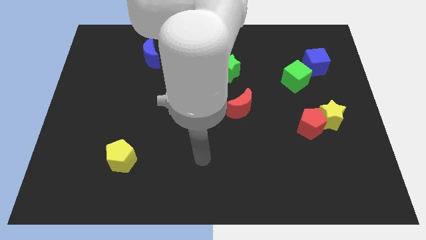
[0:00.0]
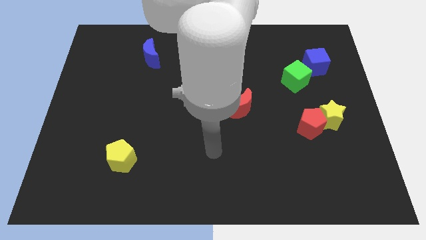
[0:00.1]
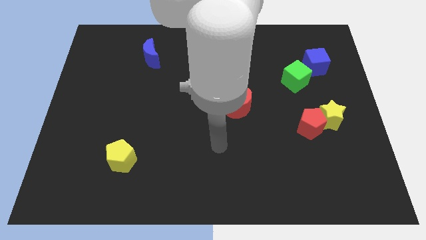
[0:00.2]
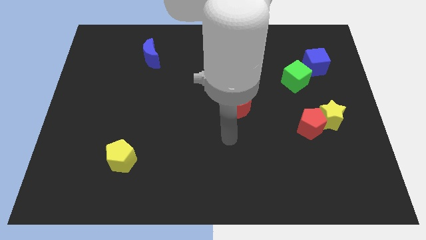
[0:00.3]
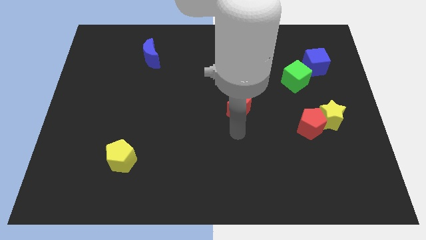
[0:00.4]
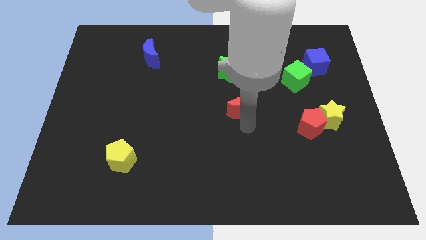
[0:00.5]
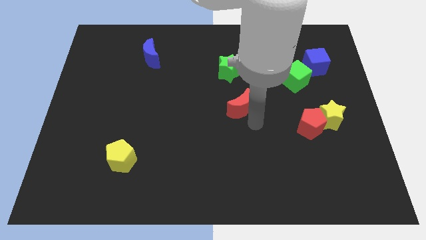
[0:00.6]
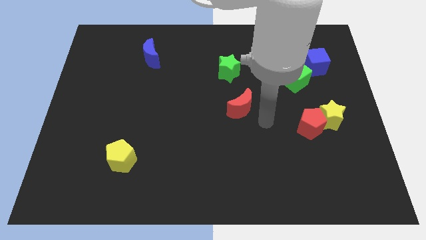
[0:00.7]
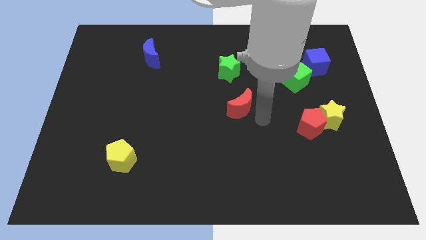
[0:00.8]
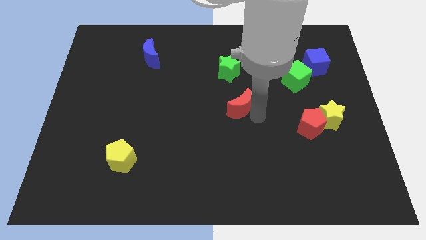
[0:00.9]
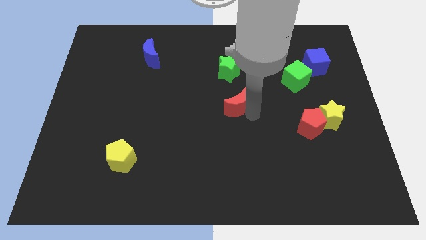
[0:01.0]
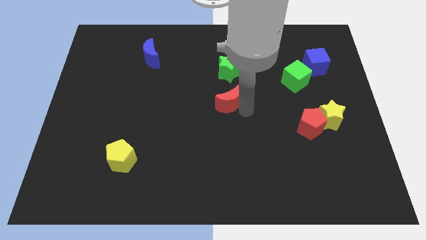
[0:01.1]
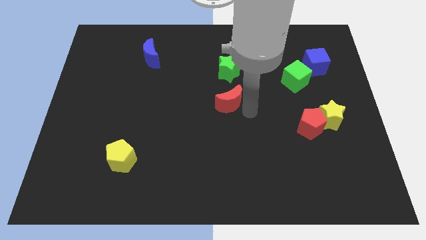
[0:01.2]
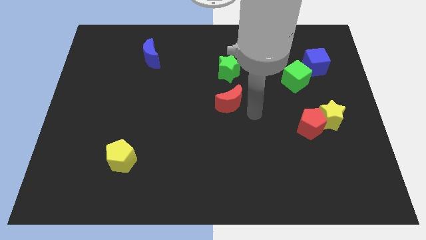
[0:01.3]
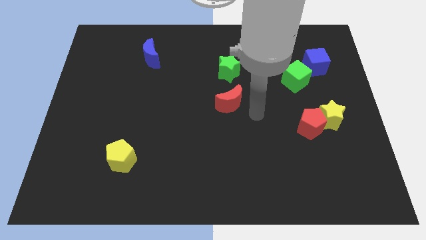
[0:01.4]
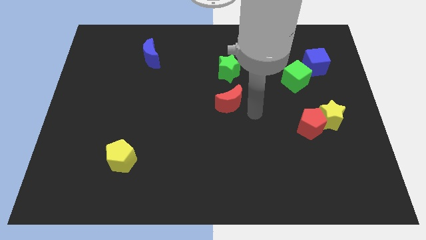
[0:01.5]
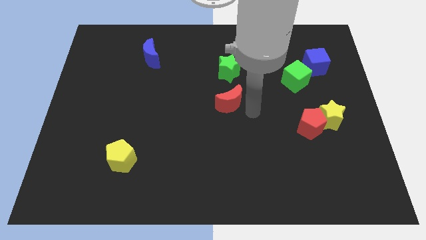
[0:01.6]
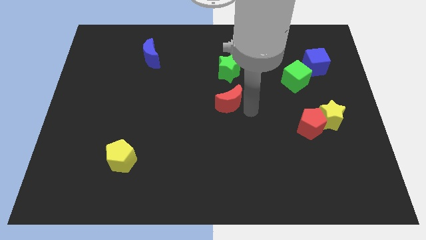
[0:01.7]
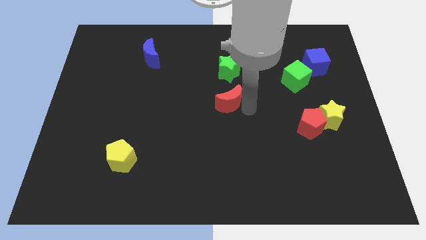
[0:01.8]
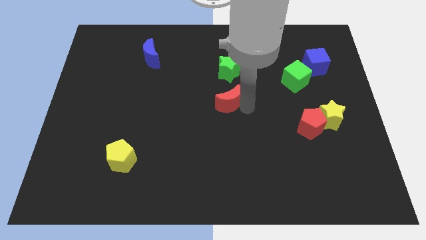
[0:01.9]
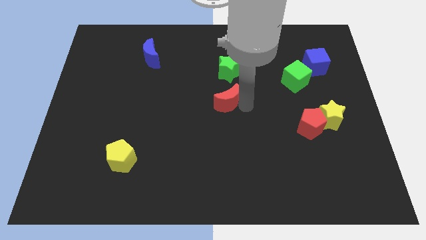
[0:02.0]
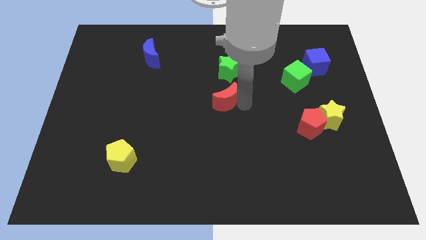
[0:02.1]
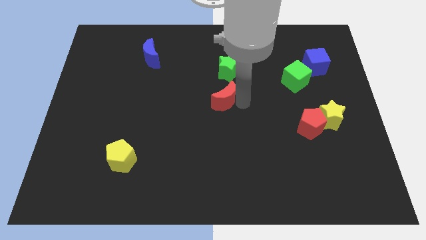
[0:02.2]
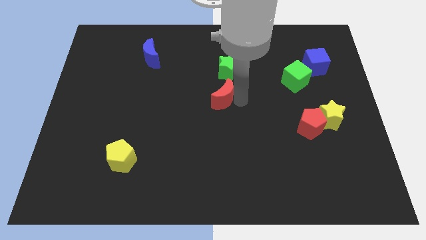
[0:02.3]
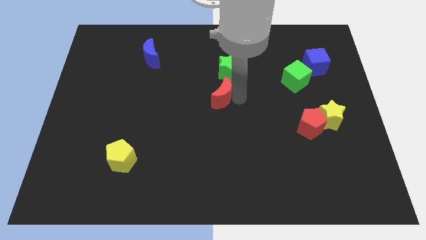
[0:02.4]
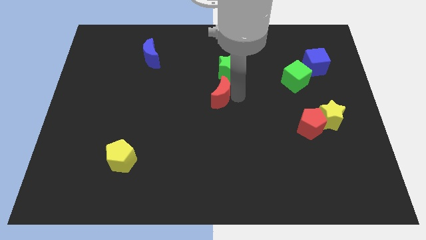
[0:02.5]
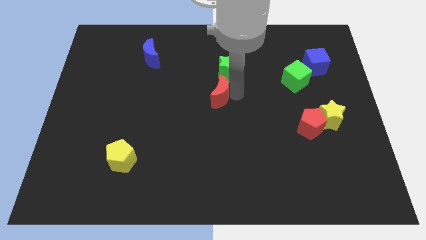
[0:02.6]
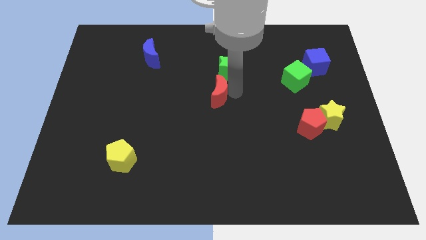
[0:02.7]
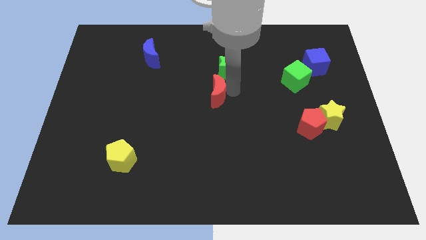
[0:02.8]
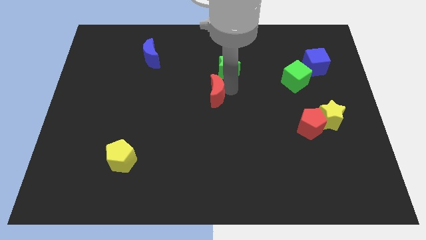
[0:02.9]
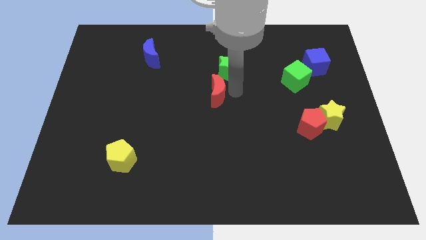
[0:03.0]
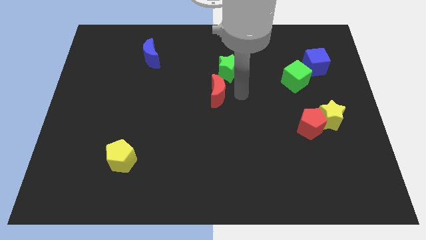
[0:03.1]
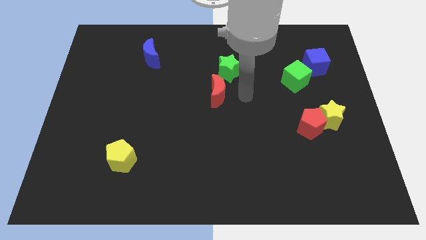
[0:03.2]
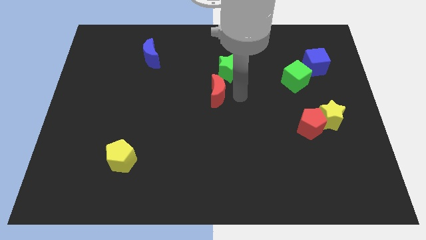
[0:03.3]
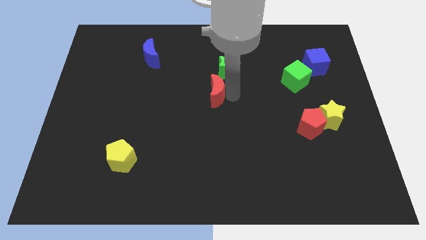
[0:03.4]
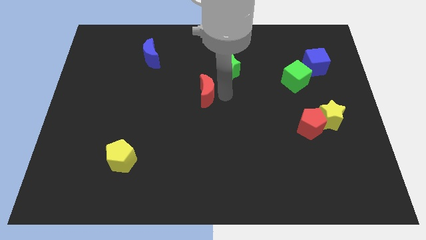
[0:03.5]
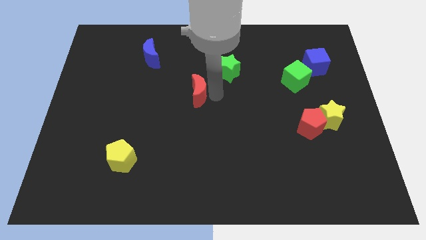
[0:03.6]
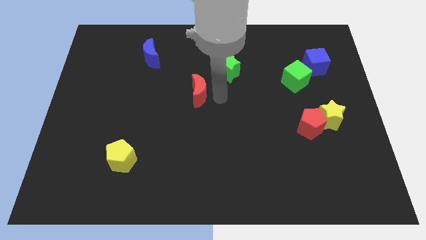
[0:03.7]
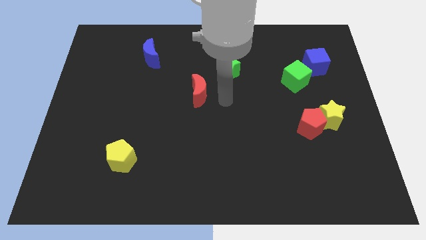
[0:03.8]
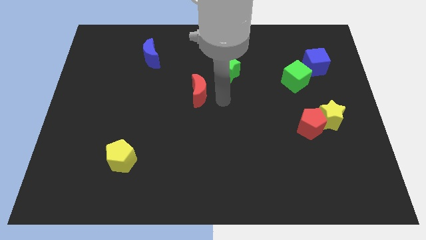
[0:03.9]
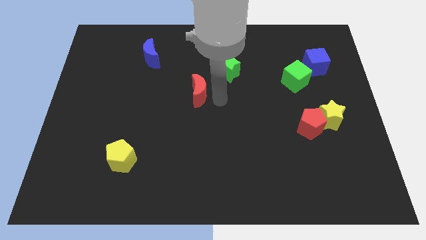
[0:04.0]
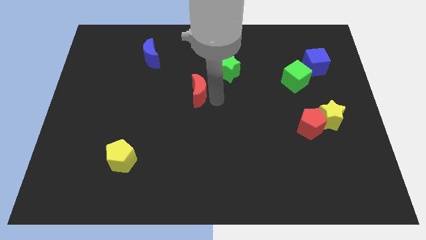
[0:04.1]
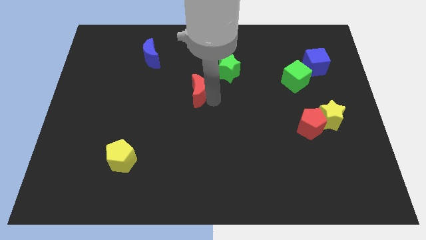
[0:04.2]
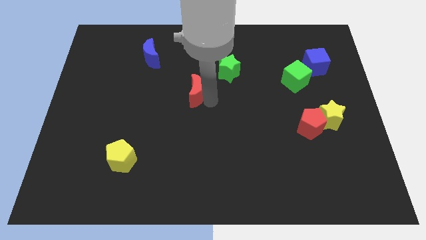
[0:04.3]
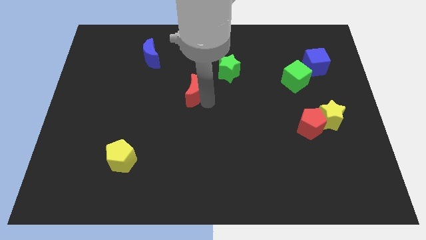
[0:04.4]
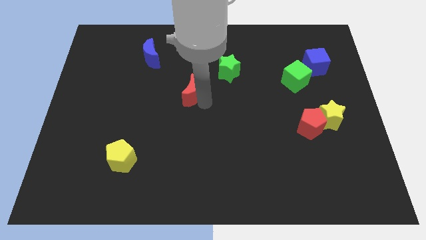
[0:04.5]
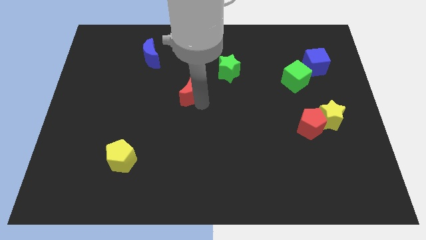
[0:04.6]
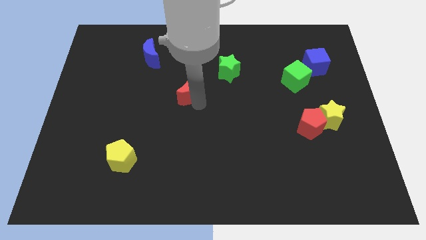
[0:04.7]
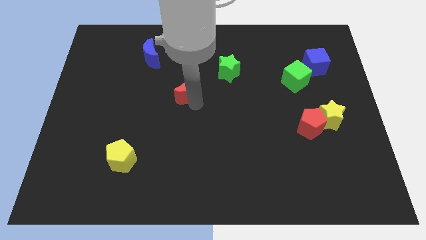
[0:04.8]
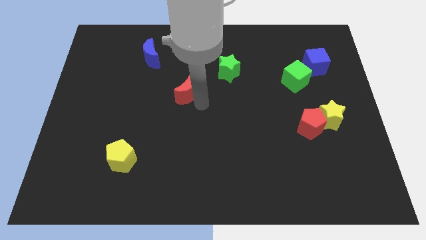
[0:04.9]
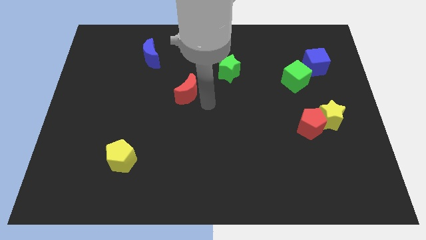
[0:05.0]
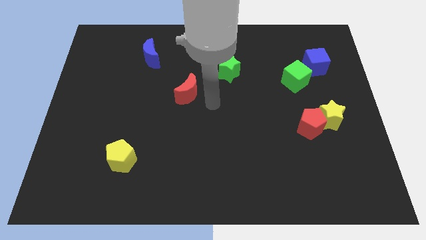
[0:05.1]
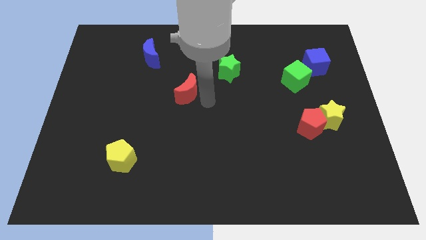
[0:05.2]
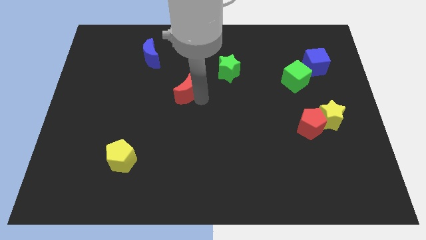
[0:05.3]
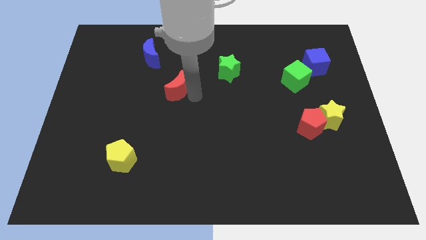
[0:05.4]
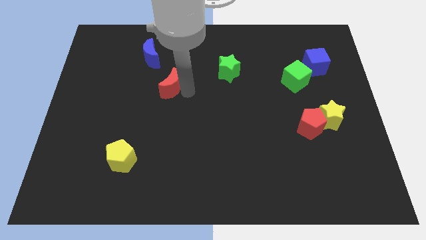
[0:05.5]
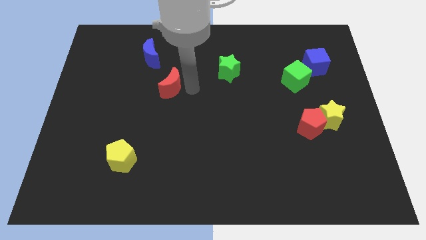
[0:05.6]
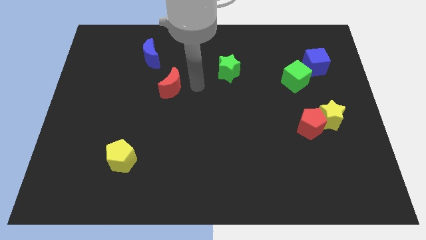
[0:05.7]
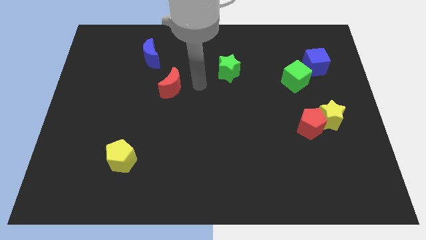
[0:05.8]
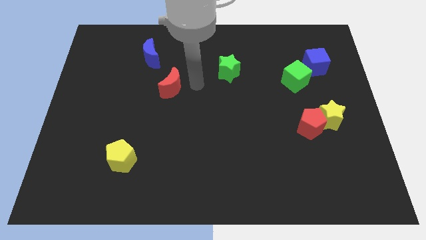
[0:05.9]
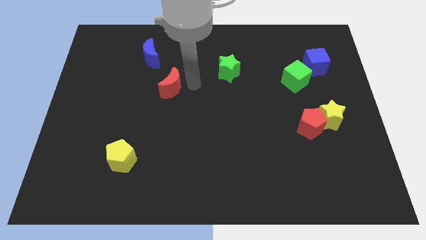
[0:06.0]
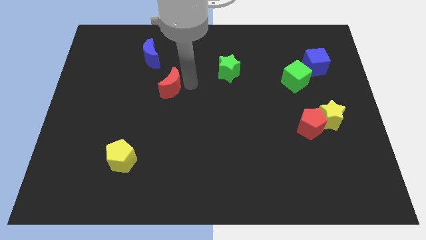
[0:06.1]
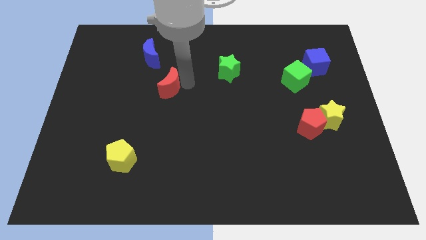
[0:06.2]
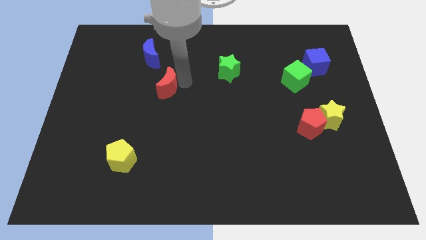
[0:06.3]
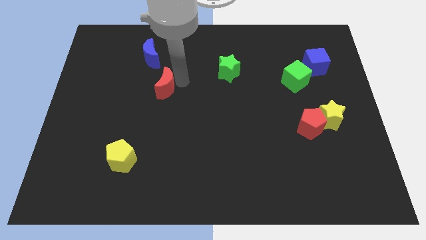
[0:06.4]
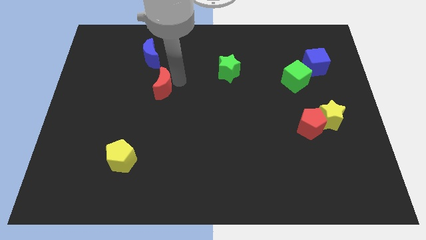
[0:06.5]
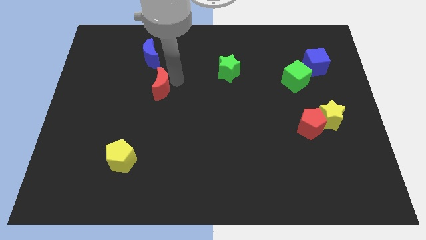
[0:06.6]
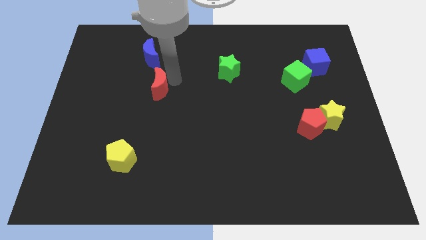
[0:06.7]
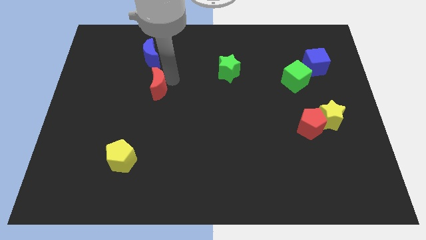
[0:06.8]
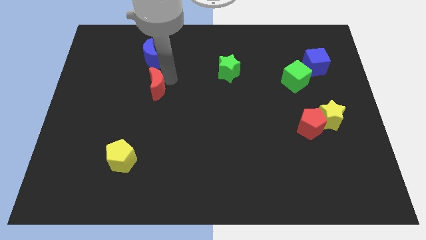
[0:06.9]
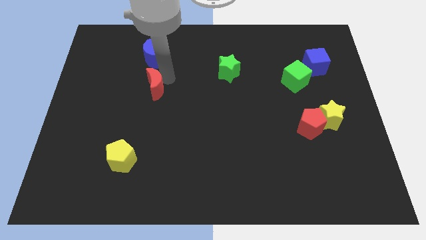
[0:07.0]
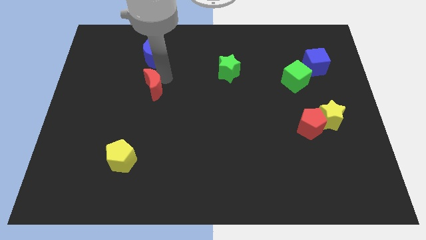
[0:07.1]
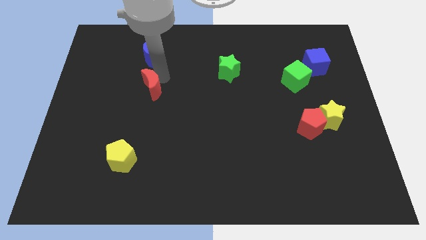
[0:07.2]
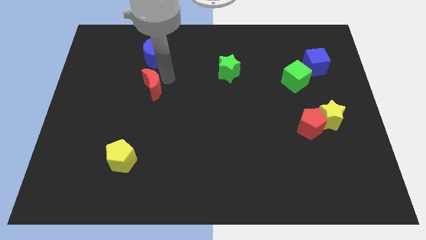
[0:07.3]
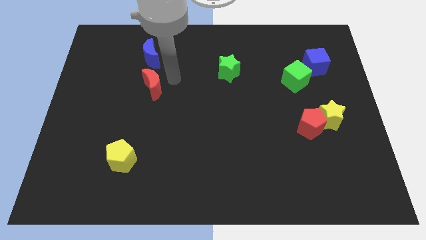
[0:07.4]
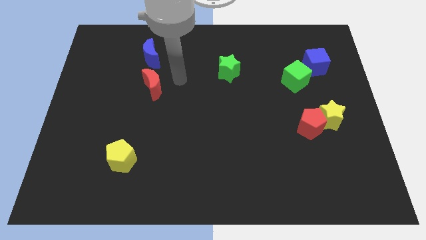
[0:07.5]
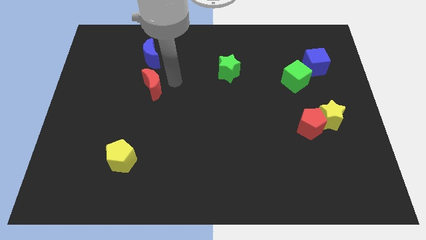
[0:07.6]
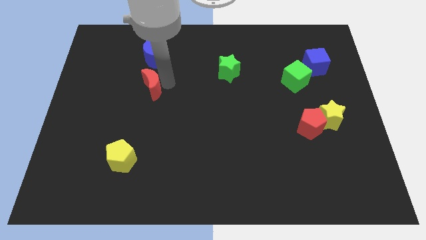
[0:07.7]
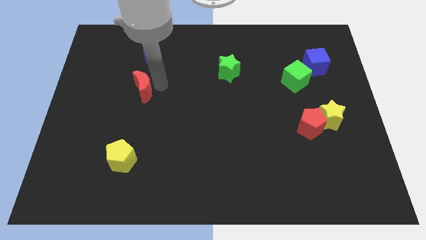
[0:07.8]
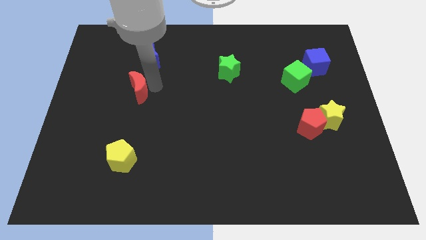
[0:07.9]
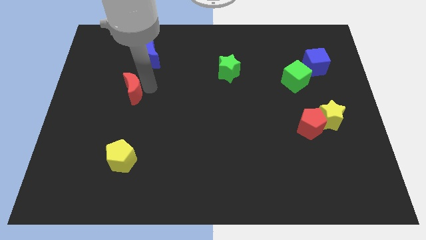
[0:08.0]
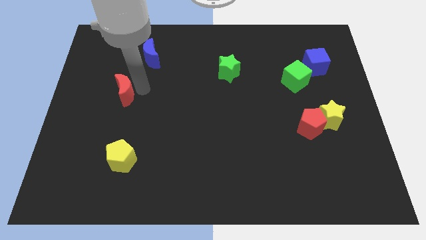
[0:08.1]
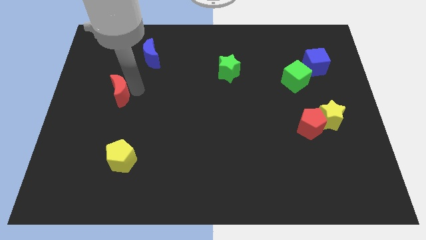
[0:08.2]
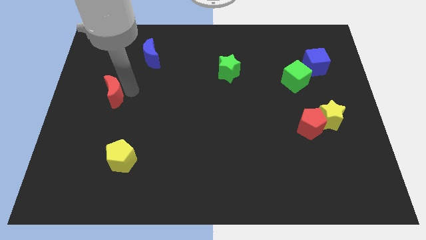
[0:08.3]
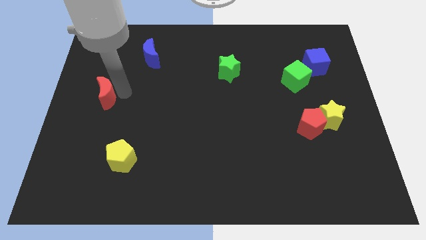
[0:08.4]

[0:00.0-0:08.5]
push the red moon to the left side
